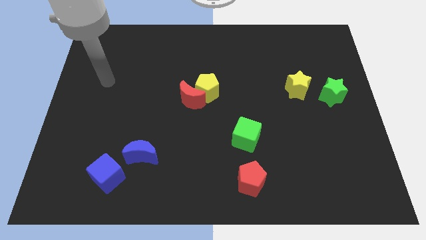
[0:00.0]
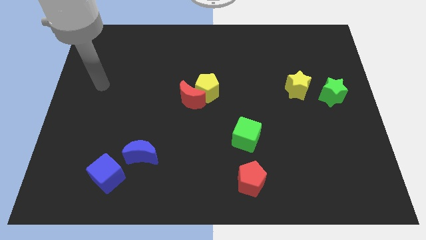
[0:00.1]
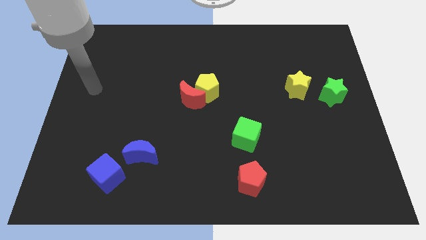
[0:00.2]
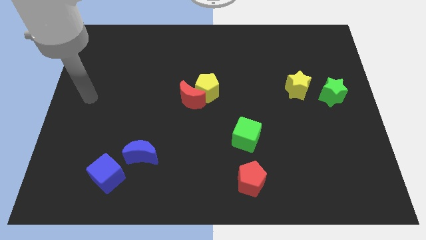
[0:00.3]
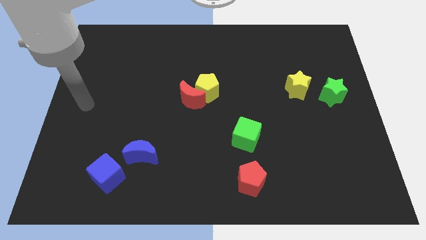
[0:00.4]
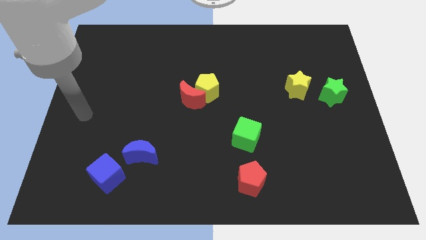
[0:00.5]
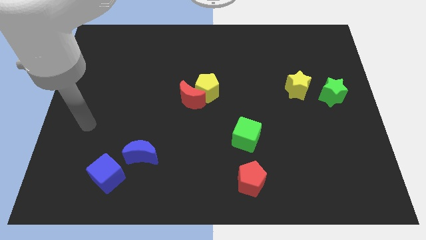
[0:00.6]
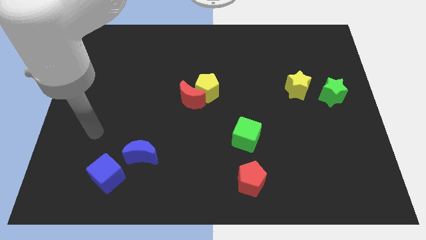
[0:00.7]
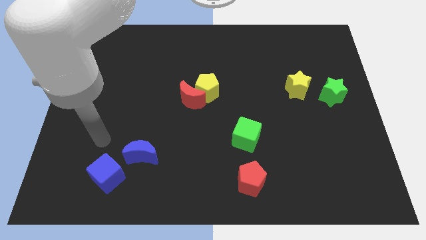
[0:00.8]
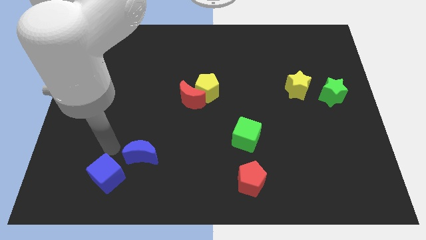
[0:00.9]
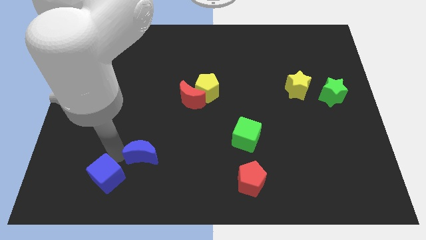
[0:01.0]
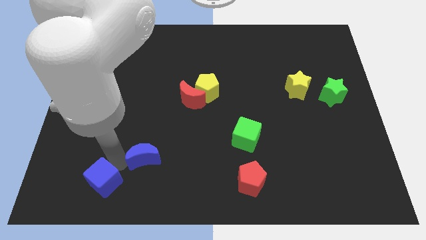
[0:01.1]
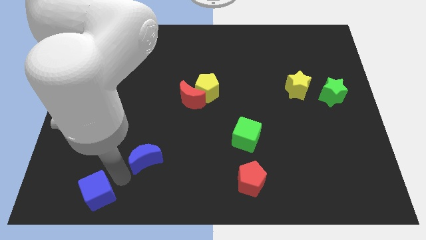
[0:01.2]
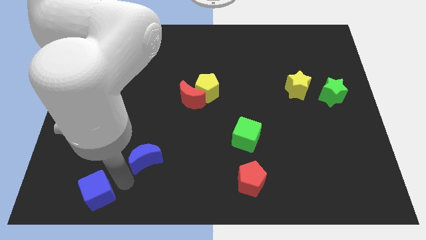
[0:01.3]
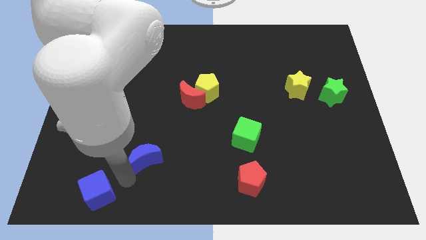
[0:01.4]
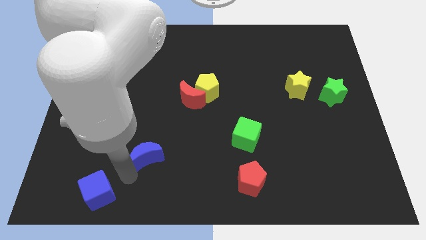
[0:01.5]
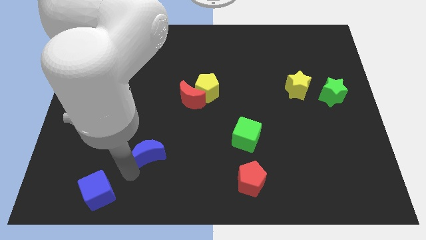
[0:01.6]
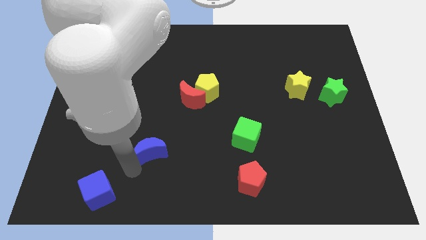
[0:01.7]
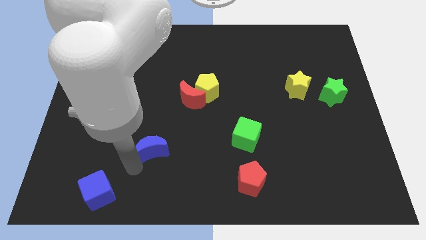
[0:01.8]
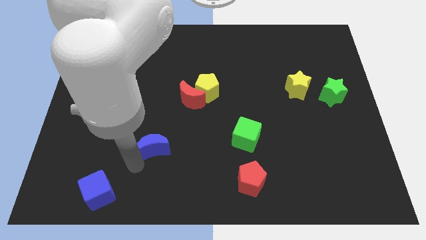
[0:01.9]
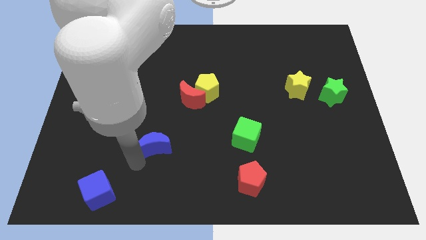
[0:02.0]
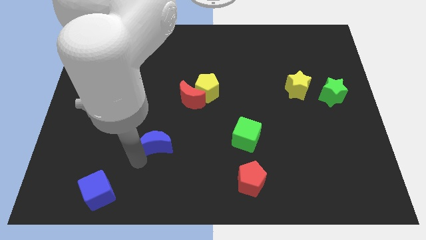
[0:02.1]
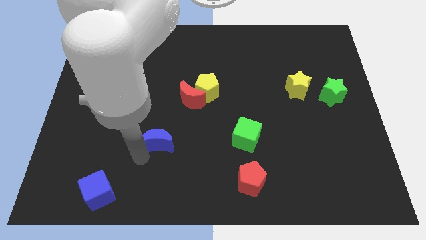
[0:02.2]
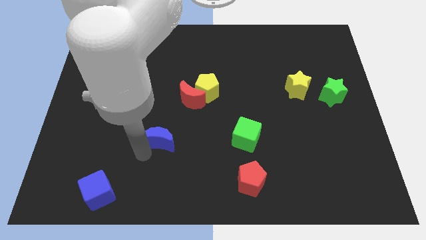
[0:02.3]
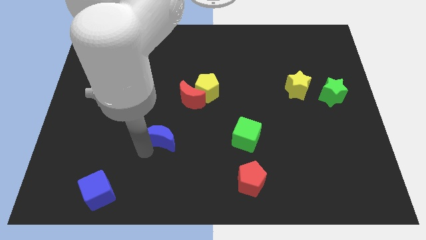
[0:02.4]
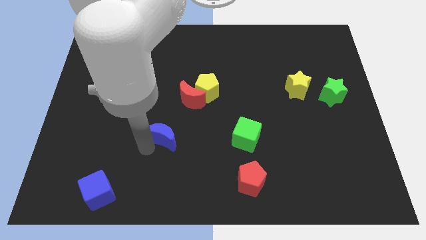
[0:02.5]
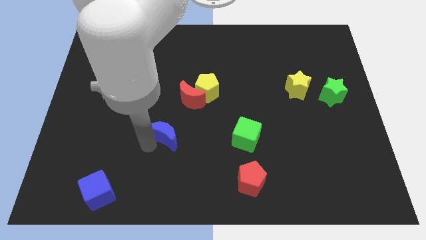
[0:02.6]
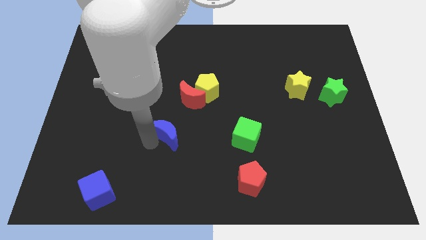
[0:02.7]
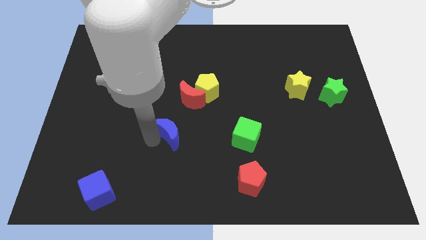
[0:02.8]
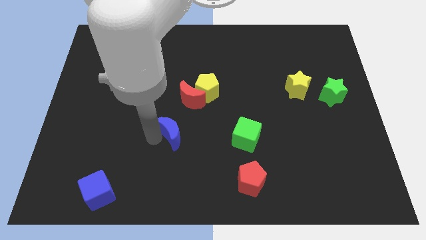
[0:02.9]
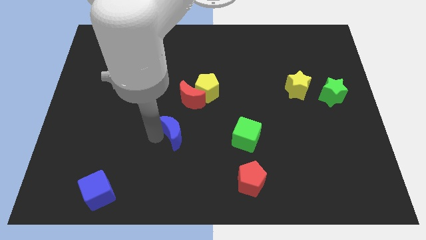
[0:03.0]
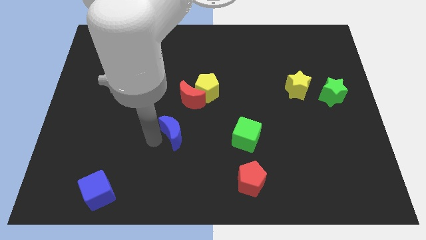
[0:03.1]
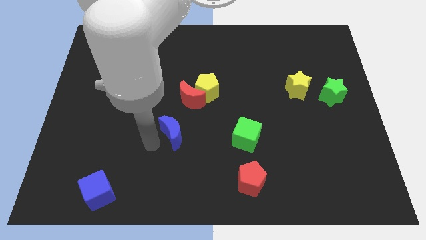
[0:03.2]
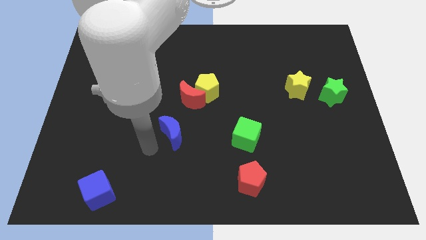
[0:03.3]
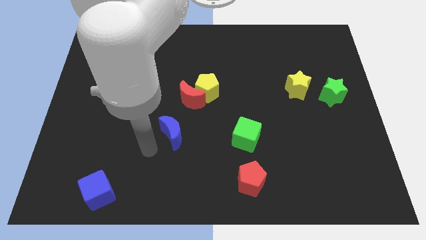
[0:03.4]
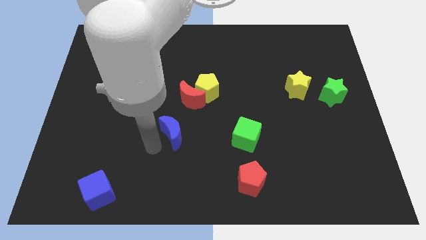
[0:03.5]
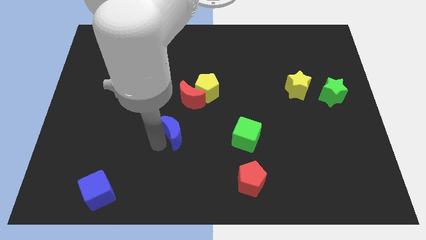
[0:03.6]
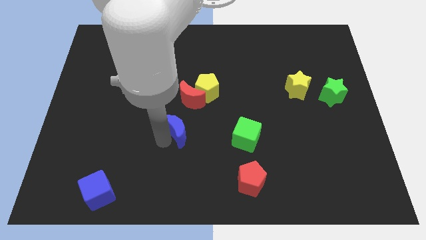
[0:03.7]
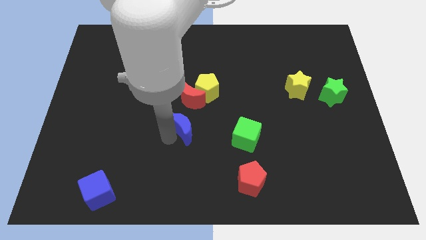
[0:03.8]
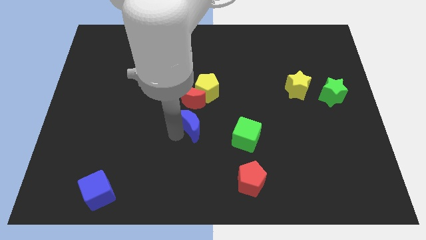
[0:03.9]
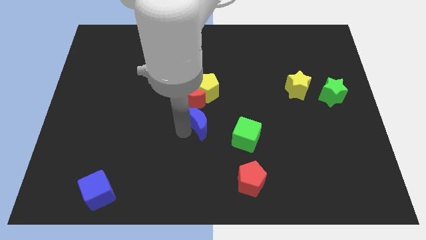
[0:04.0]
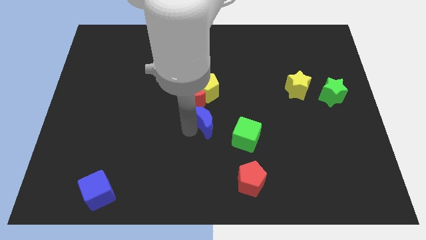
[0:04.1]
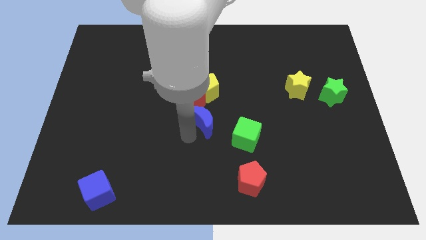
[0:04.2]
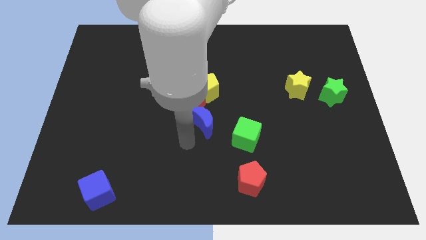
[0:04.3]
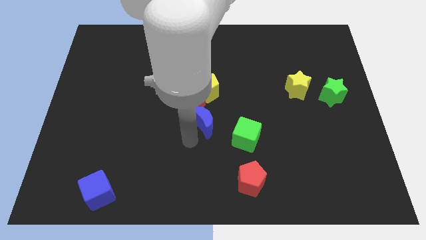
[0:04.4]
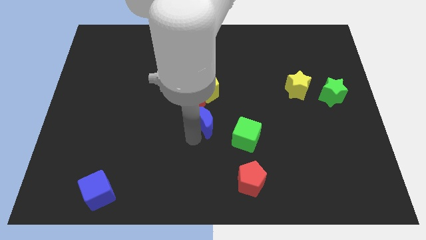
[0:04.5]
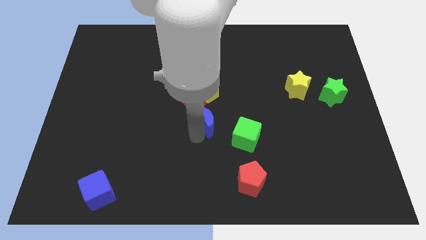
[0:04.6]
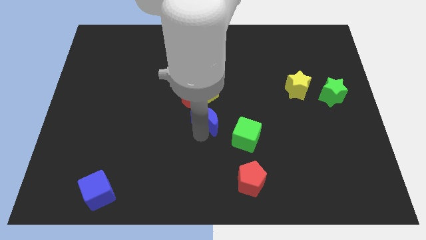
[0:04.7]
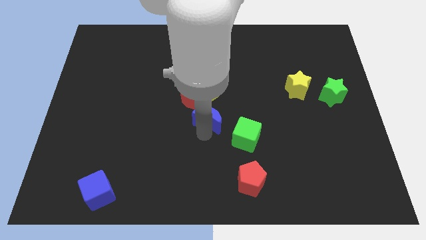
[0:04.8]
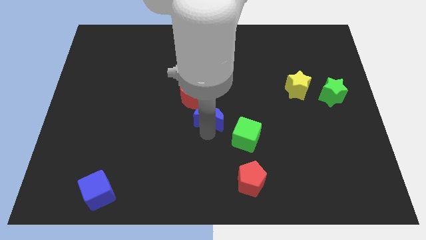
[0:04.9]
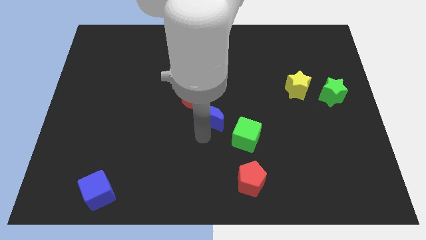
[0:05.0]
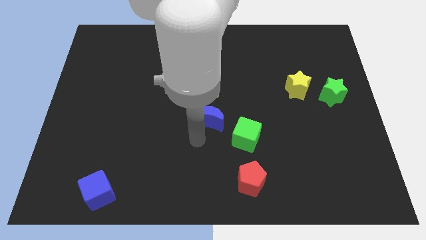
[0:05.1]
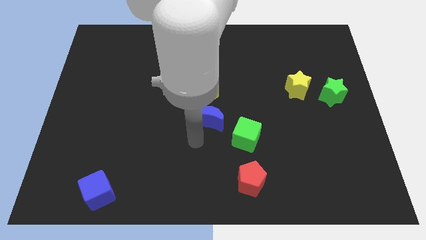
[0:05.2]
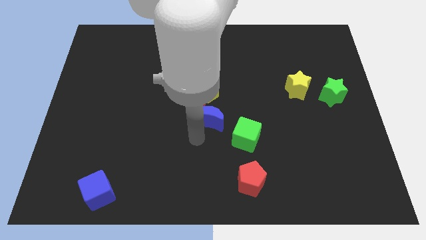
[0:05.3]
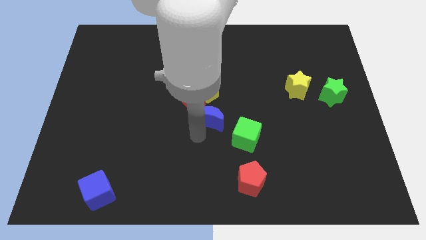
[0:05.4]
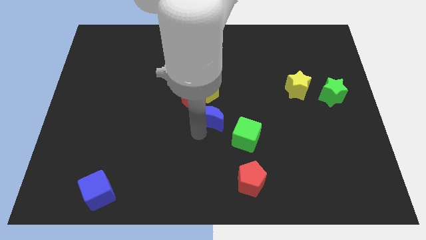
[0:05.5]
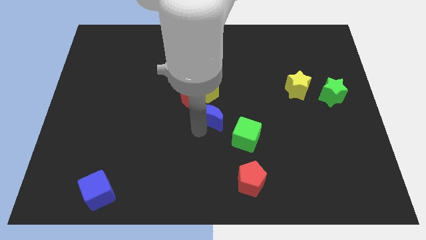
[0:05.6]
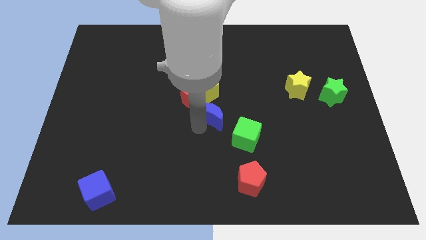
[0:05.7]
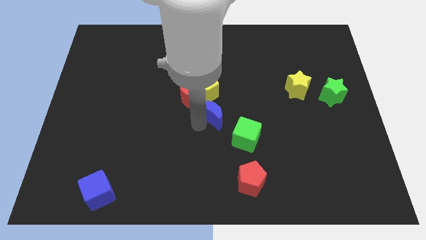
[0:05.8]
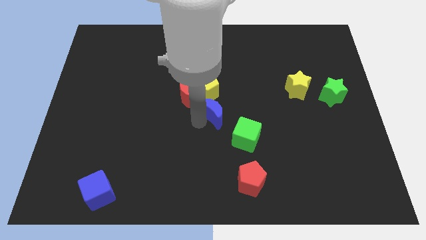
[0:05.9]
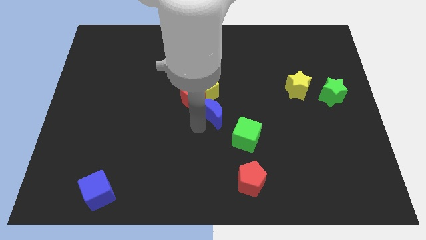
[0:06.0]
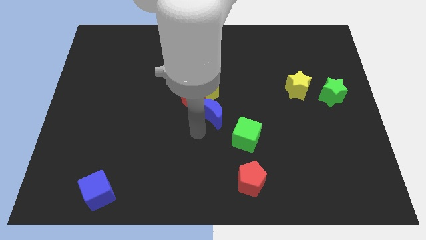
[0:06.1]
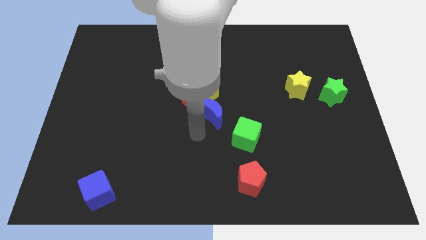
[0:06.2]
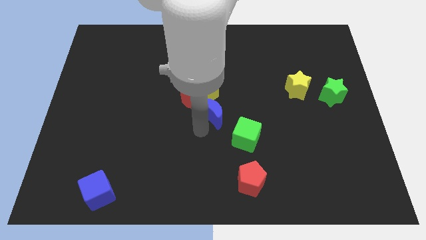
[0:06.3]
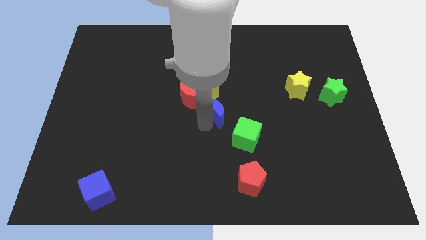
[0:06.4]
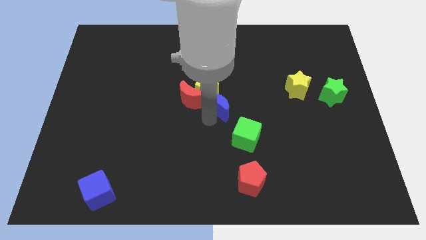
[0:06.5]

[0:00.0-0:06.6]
move the blue moon up and right

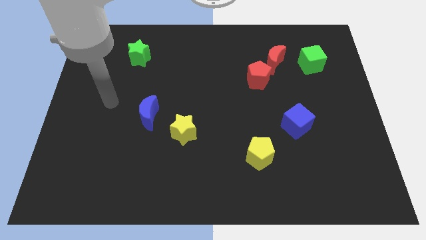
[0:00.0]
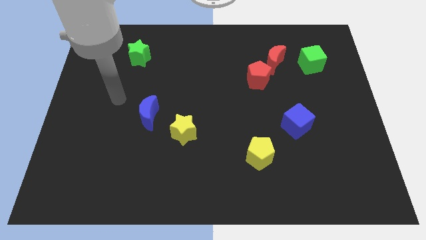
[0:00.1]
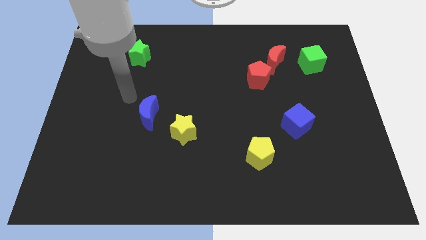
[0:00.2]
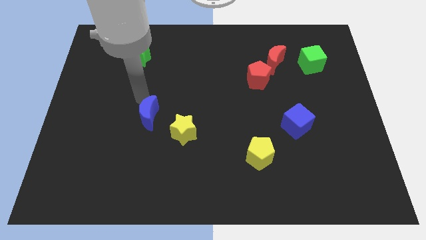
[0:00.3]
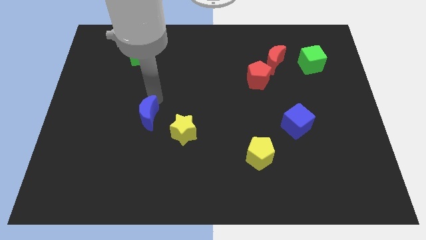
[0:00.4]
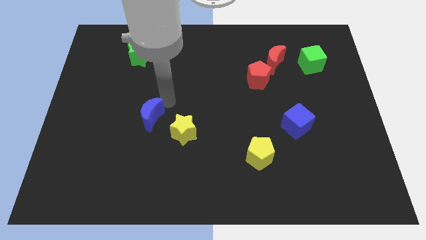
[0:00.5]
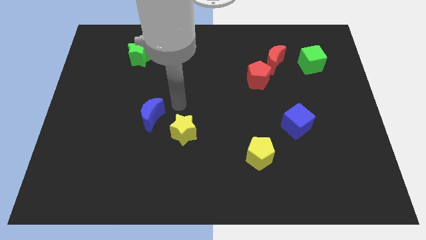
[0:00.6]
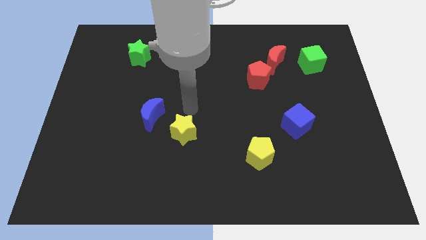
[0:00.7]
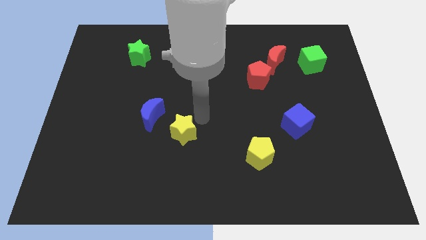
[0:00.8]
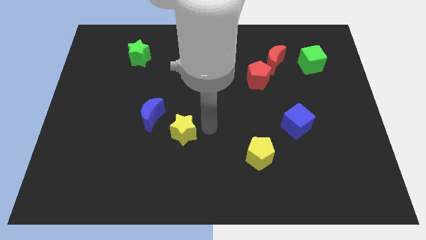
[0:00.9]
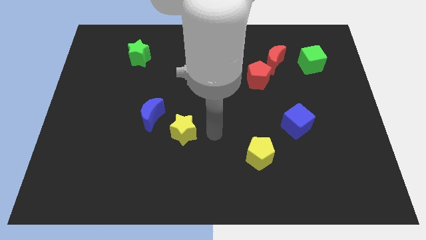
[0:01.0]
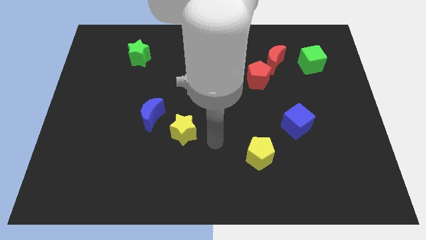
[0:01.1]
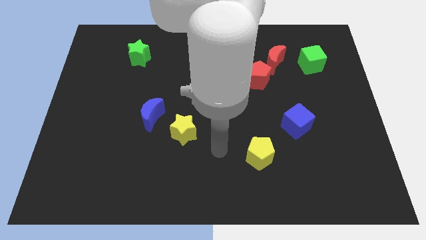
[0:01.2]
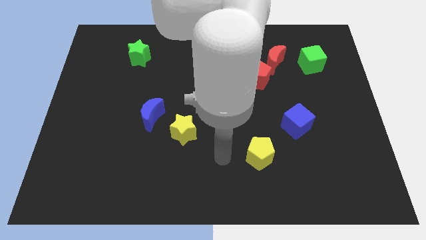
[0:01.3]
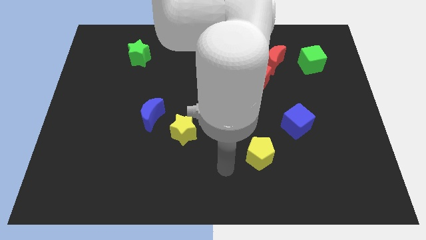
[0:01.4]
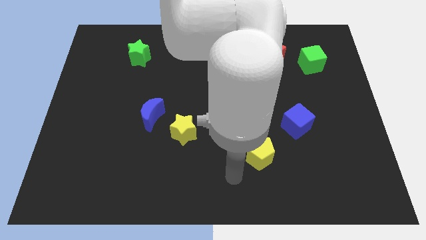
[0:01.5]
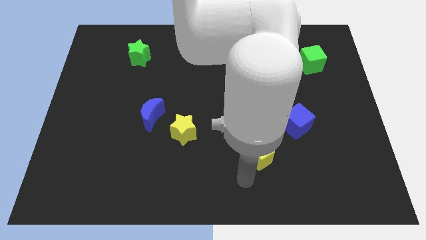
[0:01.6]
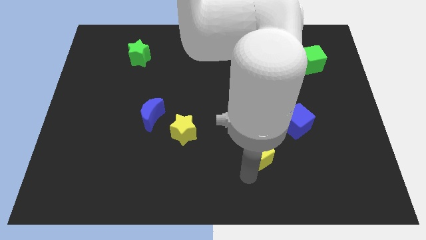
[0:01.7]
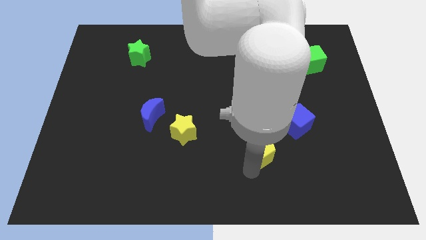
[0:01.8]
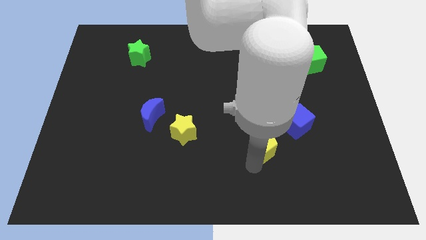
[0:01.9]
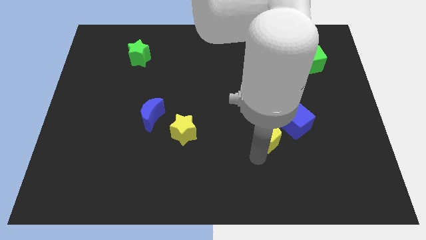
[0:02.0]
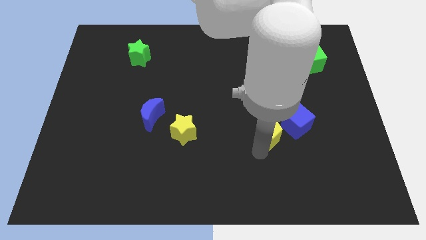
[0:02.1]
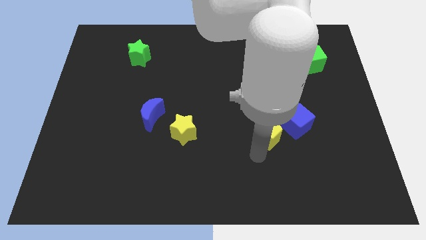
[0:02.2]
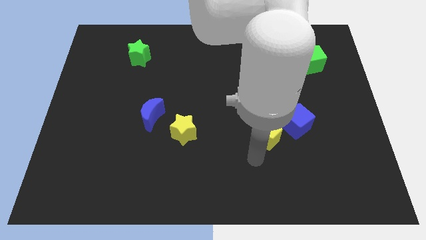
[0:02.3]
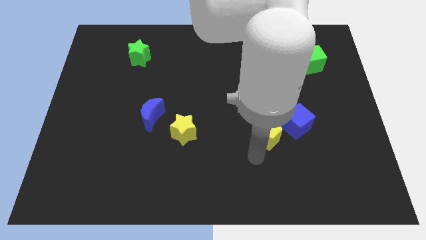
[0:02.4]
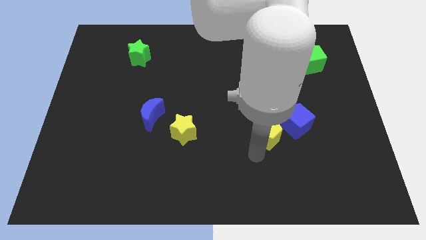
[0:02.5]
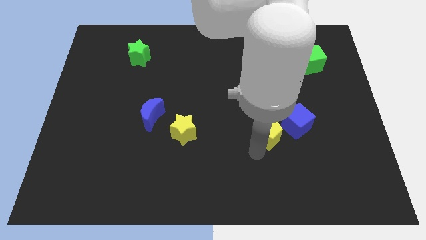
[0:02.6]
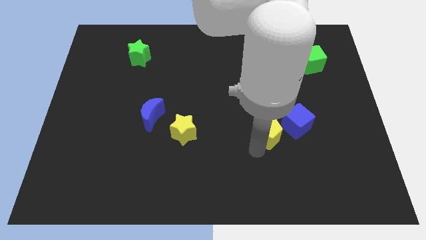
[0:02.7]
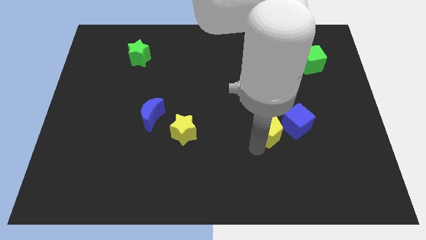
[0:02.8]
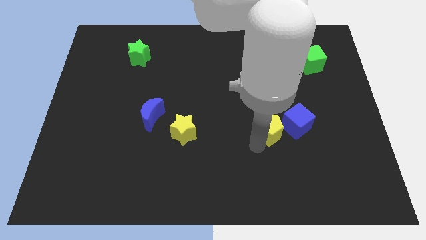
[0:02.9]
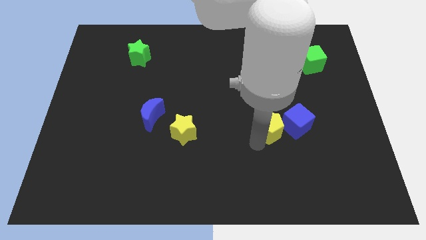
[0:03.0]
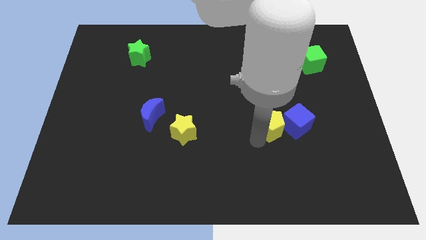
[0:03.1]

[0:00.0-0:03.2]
slightly move the yellow pentagon upwards and then to the right
